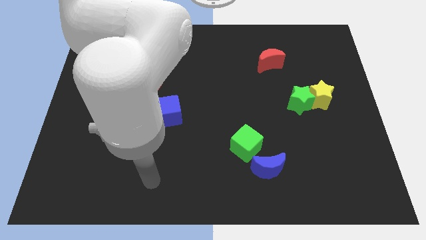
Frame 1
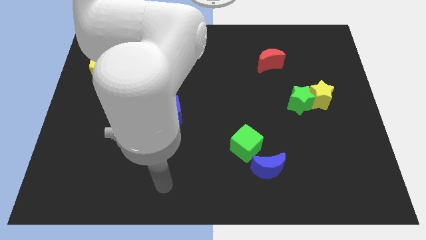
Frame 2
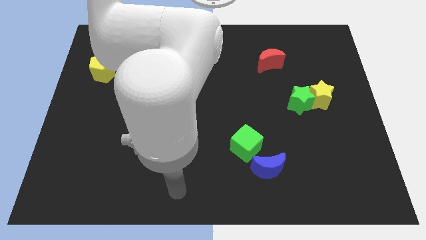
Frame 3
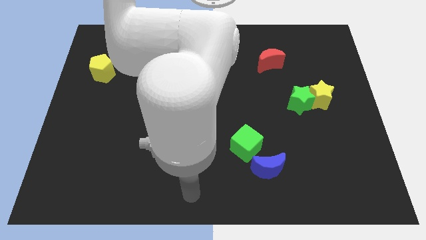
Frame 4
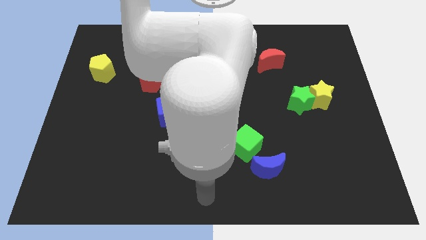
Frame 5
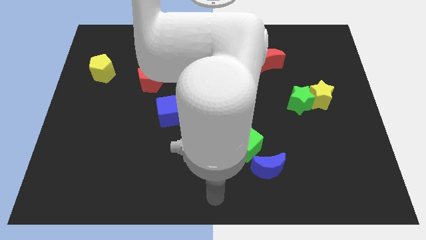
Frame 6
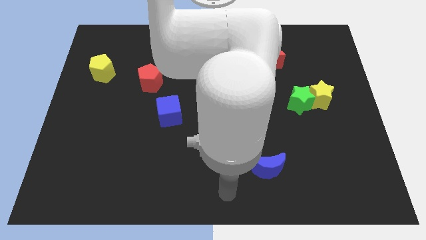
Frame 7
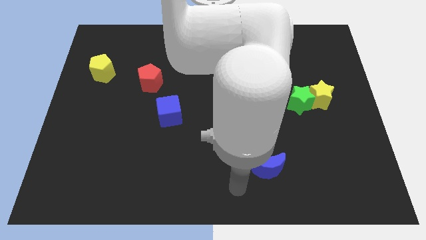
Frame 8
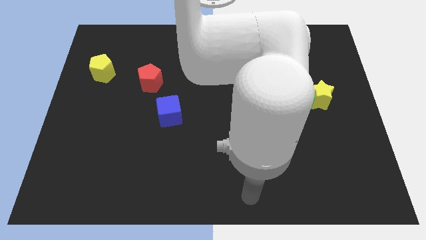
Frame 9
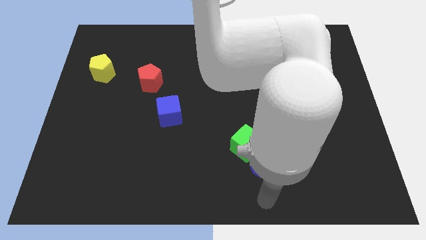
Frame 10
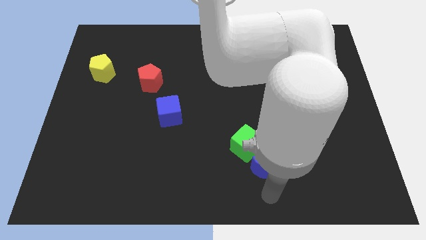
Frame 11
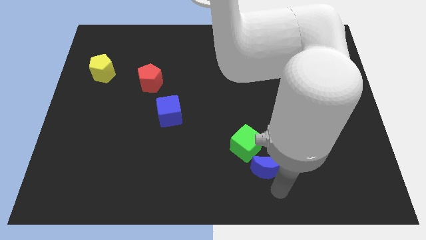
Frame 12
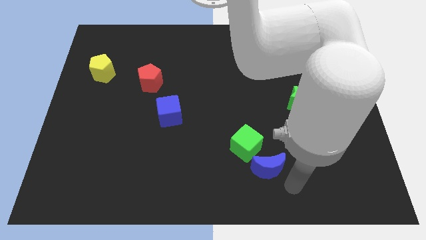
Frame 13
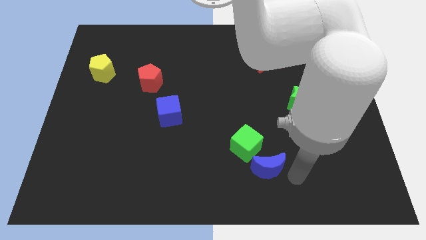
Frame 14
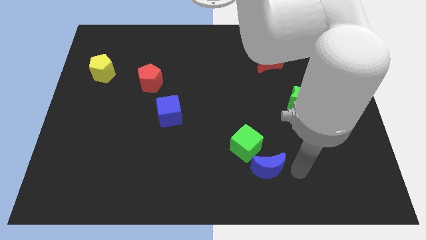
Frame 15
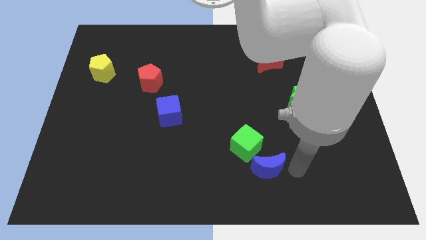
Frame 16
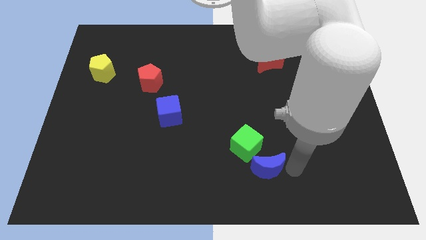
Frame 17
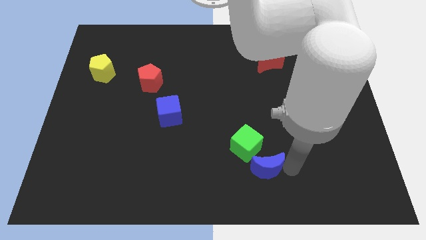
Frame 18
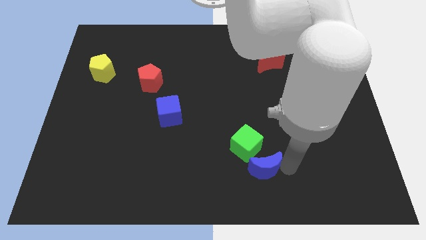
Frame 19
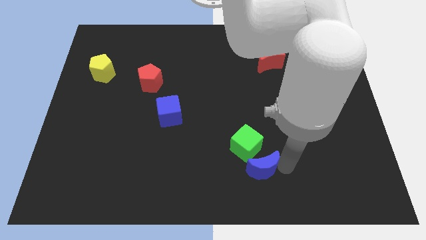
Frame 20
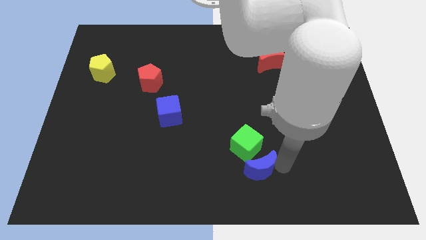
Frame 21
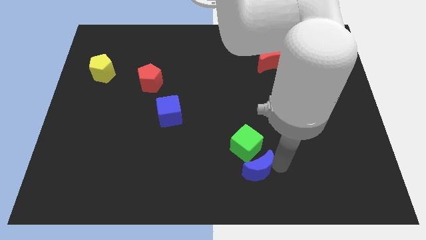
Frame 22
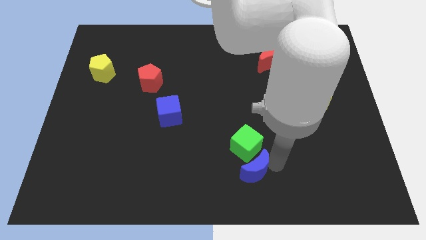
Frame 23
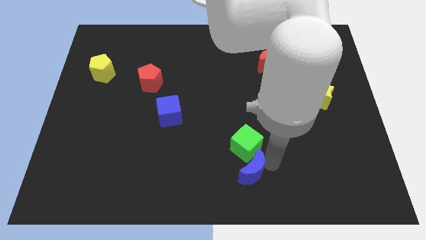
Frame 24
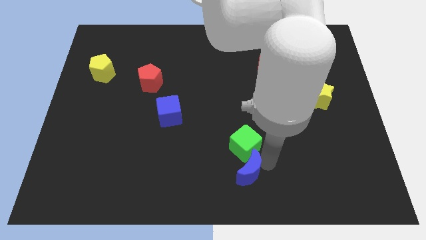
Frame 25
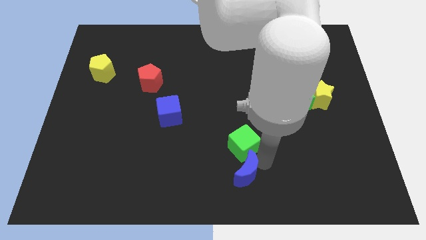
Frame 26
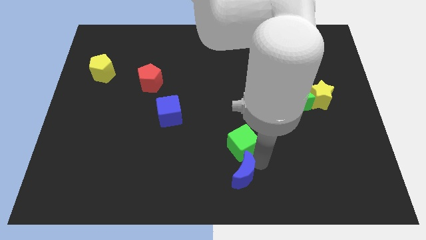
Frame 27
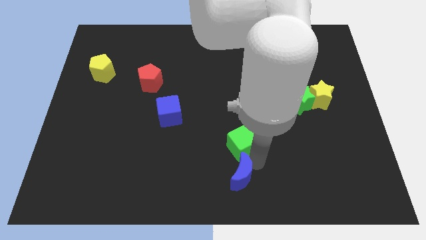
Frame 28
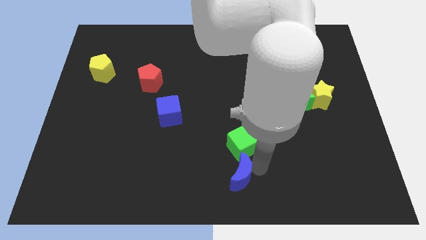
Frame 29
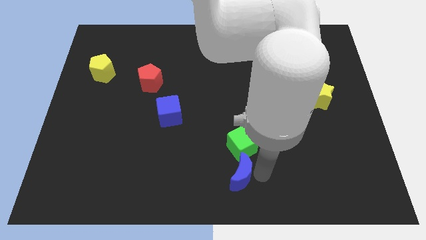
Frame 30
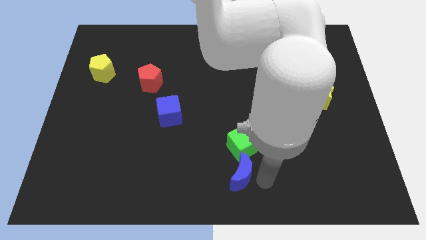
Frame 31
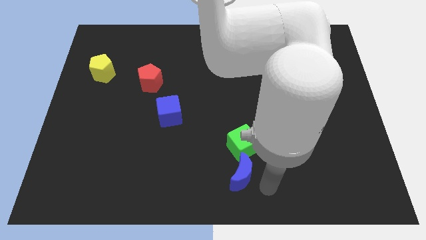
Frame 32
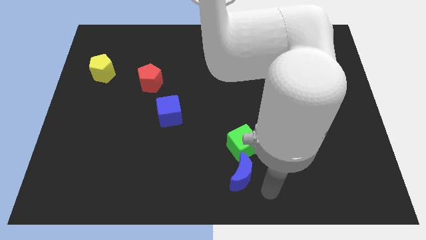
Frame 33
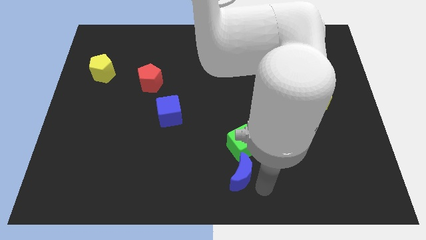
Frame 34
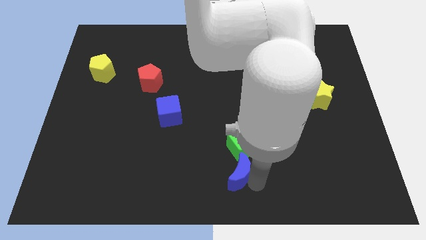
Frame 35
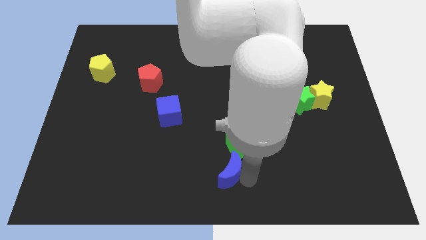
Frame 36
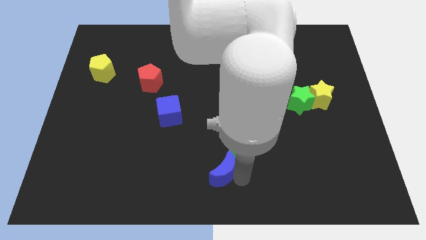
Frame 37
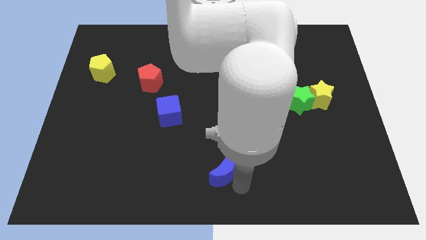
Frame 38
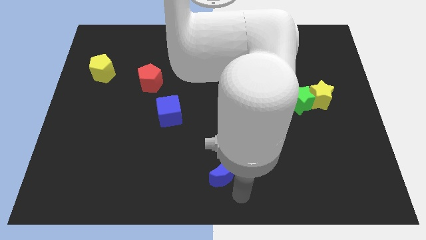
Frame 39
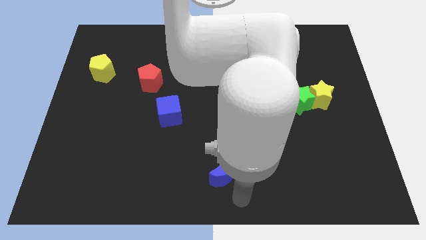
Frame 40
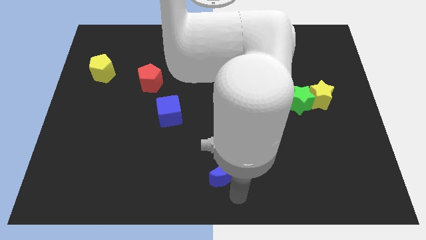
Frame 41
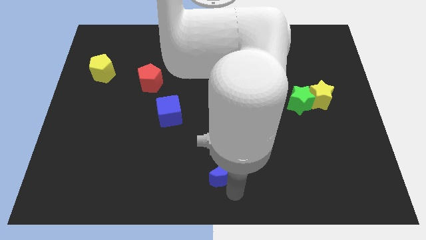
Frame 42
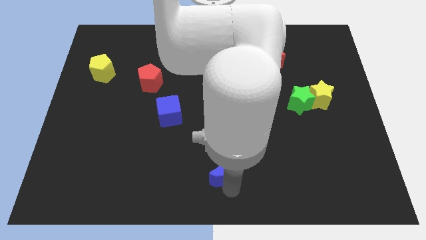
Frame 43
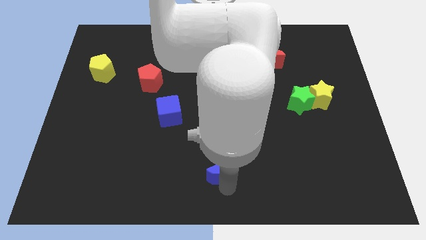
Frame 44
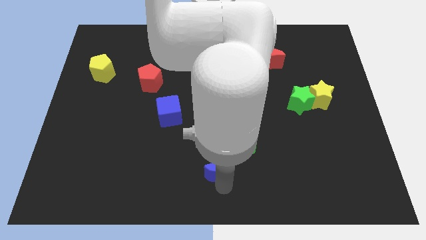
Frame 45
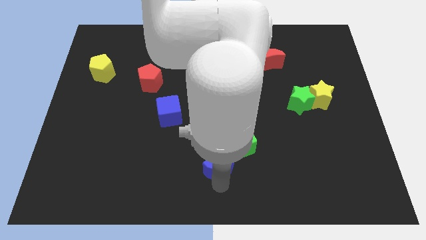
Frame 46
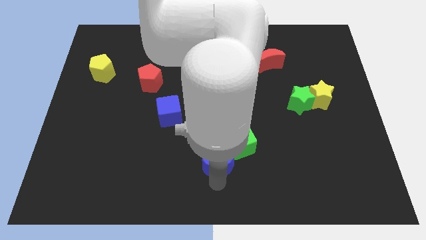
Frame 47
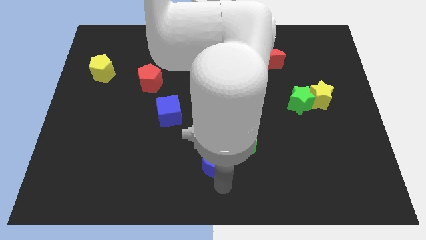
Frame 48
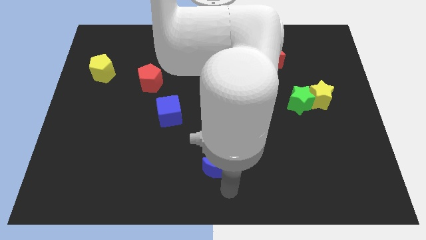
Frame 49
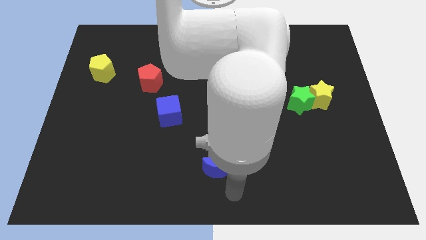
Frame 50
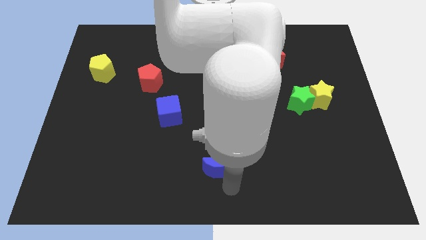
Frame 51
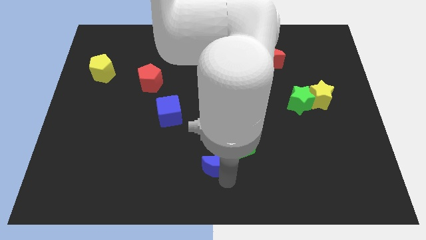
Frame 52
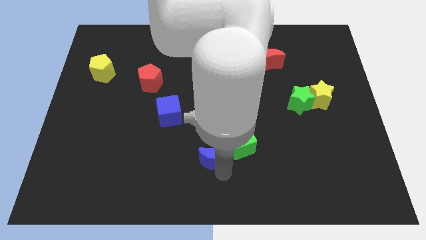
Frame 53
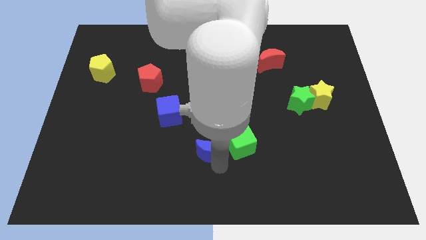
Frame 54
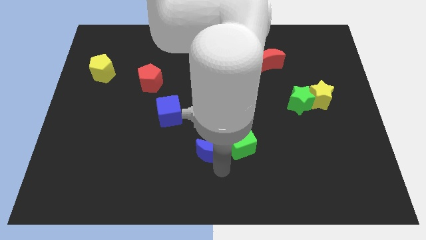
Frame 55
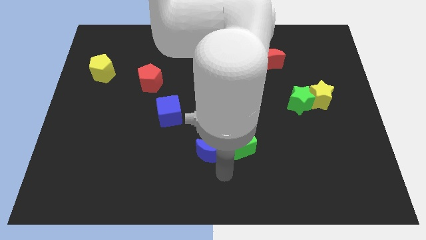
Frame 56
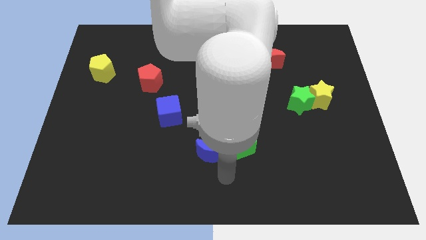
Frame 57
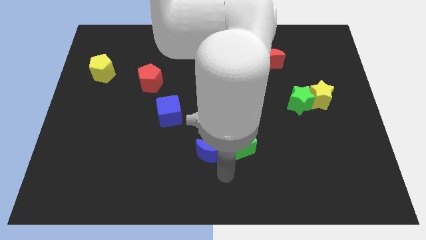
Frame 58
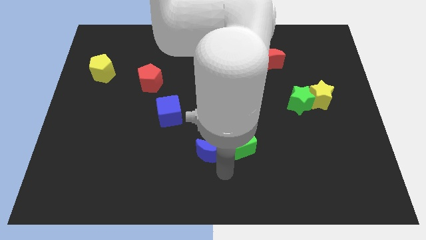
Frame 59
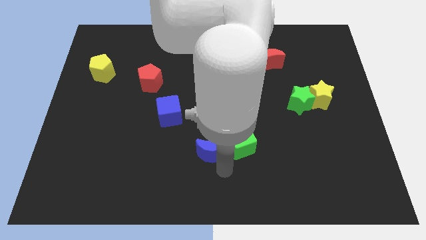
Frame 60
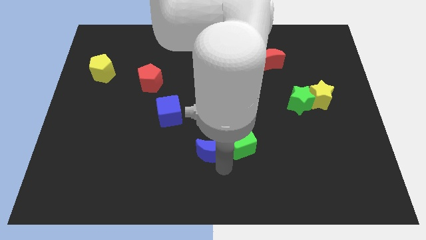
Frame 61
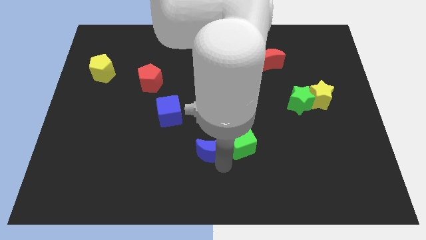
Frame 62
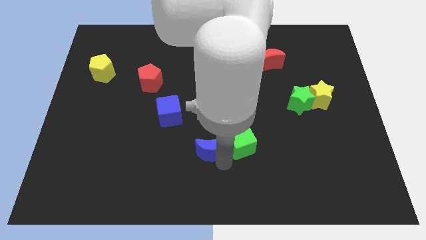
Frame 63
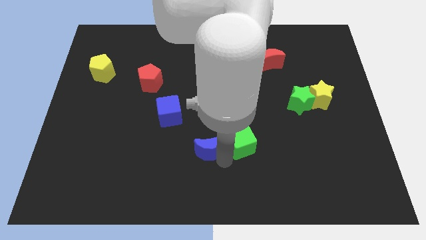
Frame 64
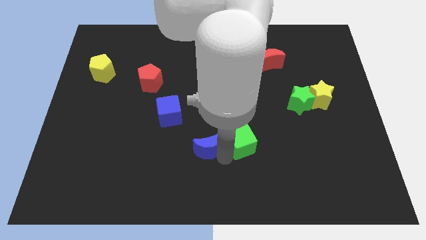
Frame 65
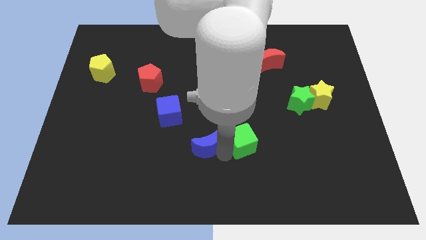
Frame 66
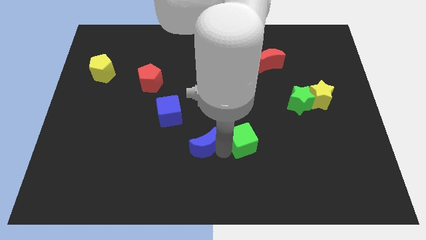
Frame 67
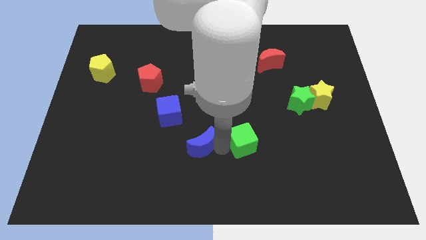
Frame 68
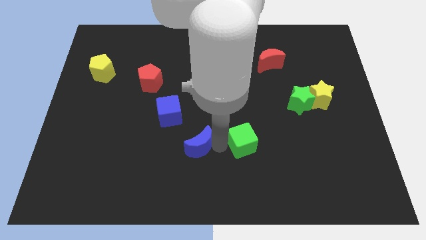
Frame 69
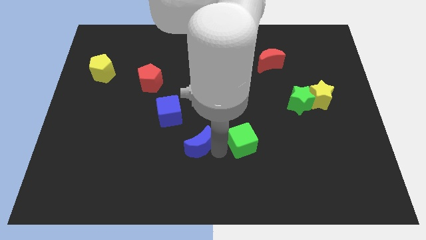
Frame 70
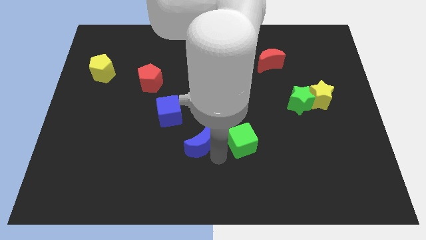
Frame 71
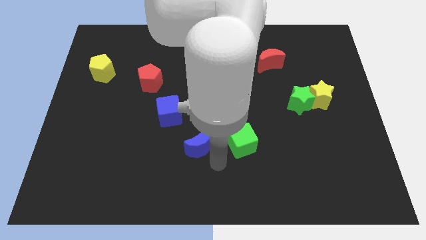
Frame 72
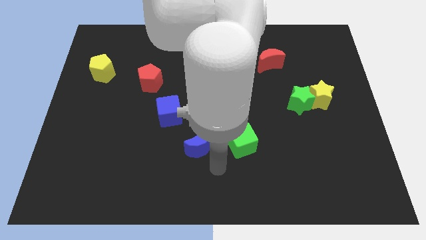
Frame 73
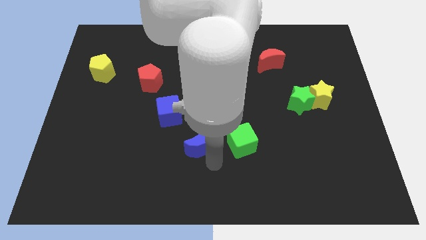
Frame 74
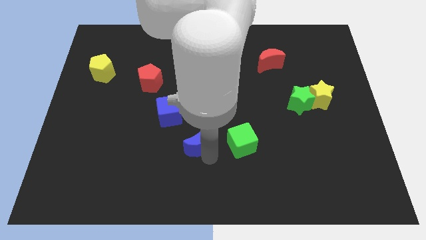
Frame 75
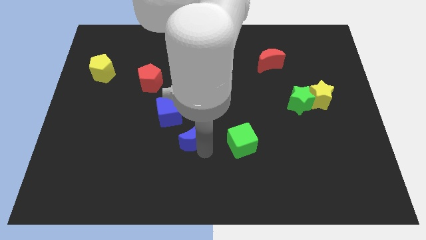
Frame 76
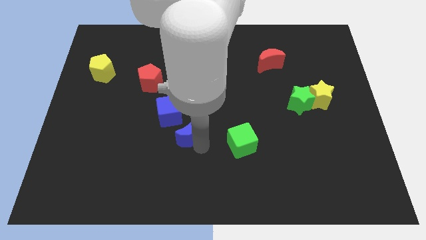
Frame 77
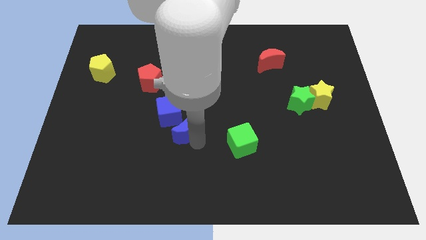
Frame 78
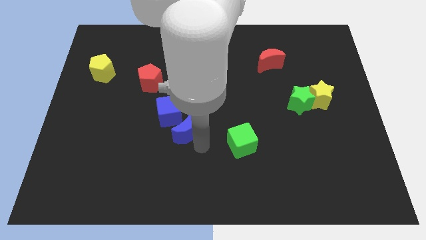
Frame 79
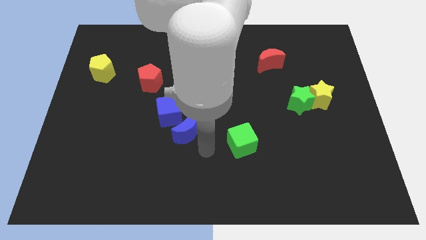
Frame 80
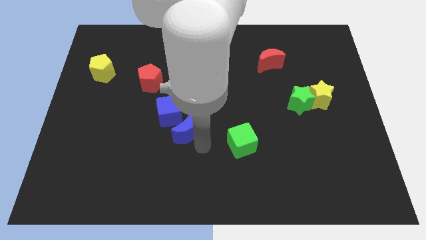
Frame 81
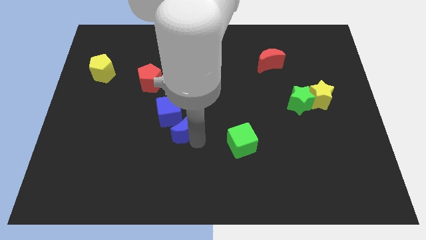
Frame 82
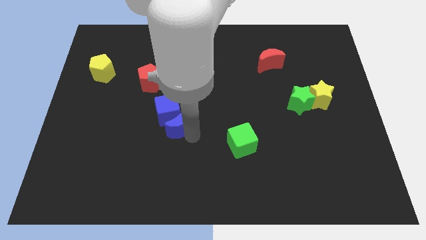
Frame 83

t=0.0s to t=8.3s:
slide the blue moon close to the blue cube
